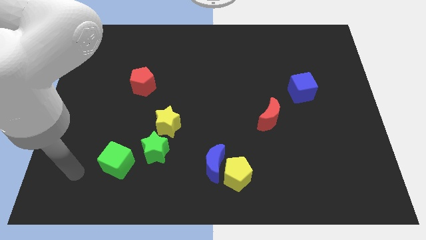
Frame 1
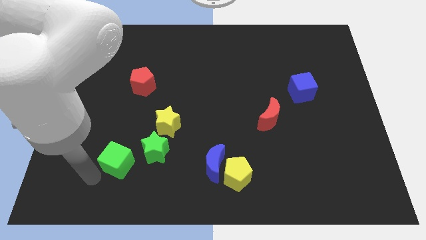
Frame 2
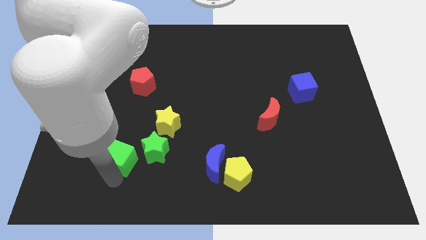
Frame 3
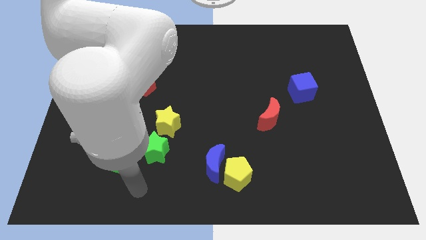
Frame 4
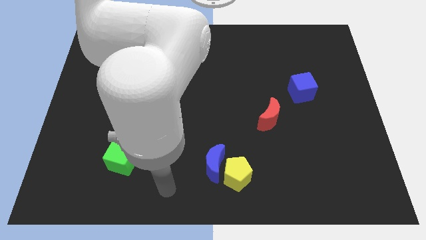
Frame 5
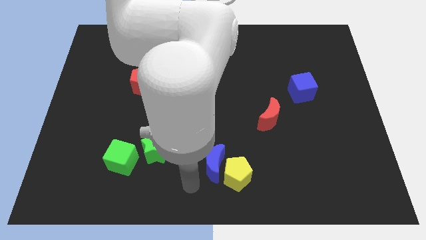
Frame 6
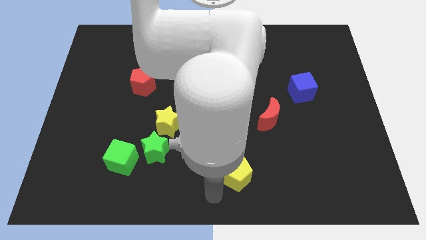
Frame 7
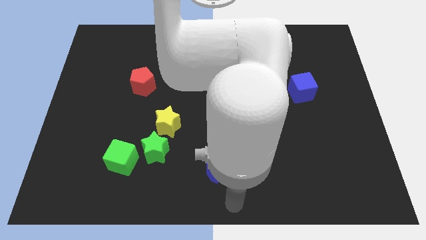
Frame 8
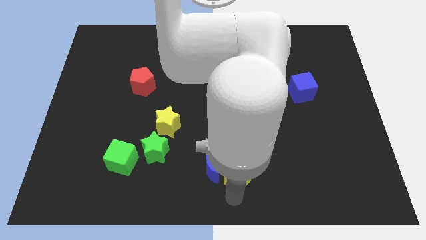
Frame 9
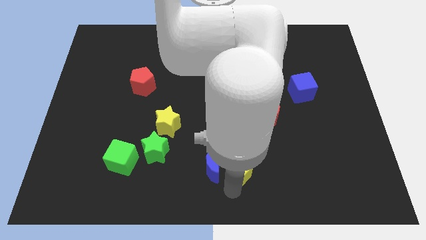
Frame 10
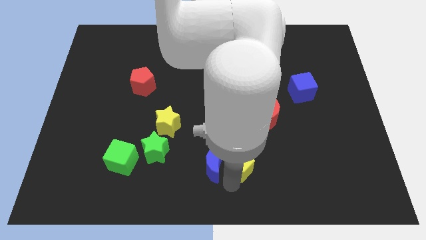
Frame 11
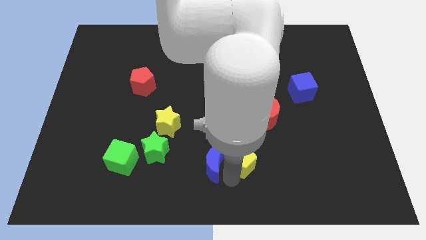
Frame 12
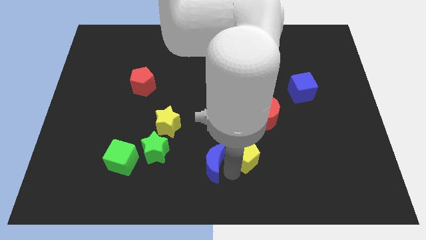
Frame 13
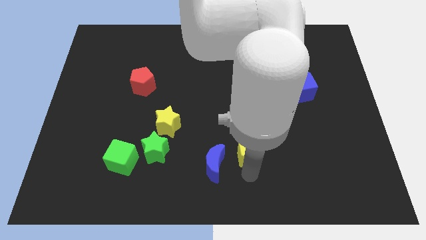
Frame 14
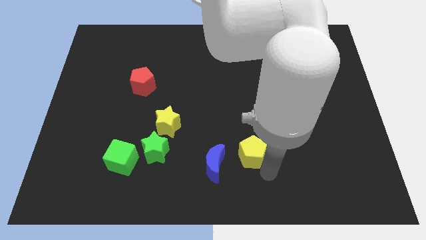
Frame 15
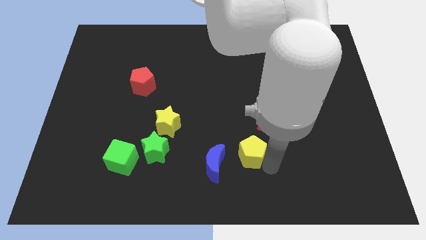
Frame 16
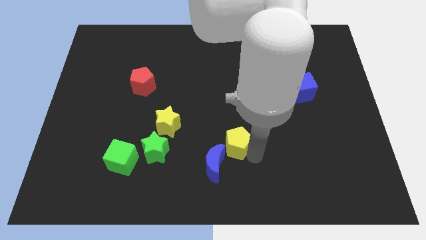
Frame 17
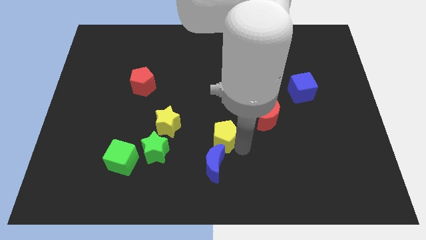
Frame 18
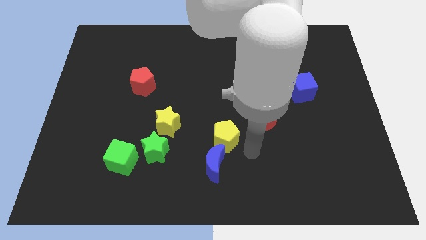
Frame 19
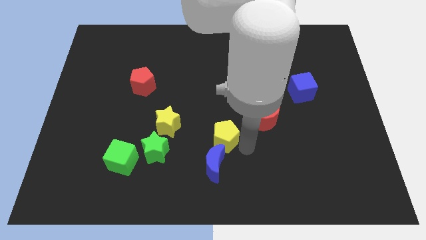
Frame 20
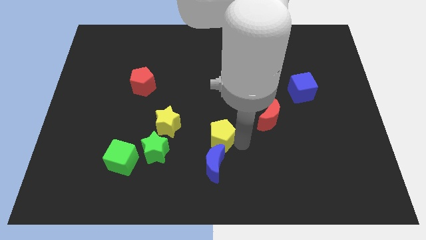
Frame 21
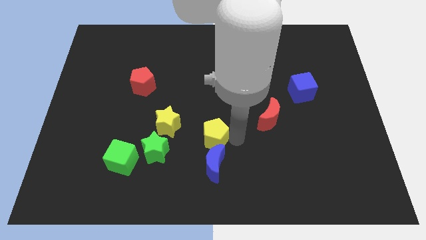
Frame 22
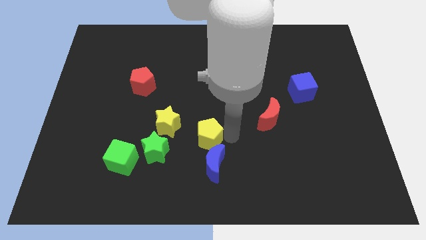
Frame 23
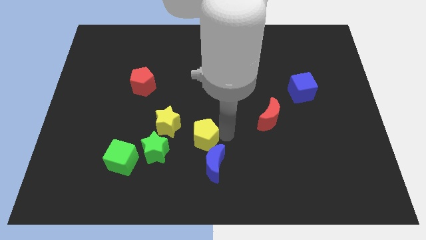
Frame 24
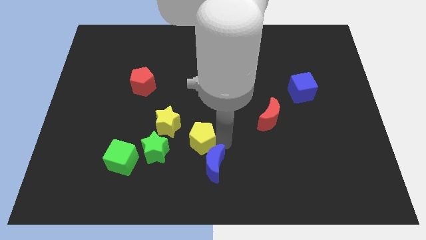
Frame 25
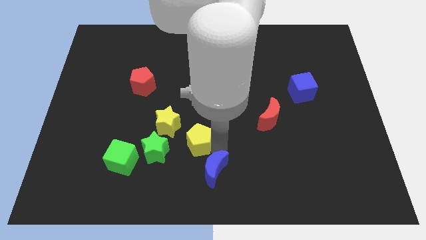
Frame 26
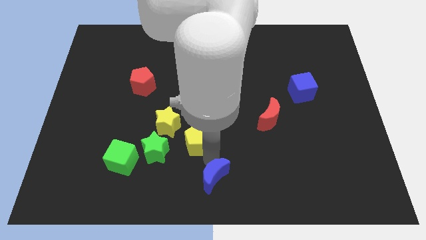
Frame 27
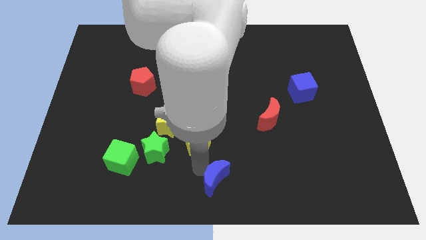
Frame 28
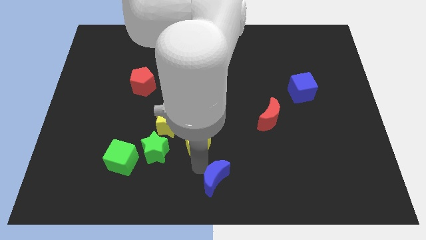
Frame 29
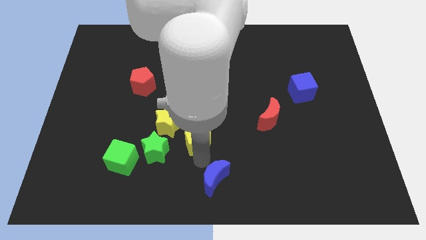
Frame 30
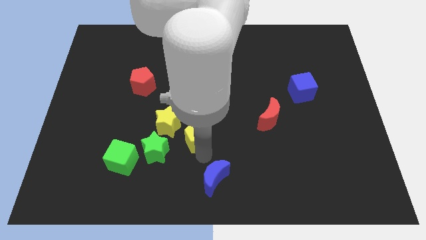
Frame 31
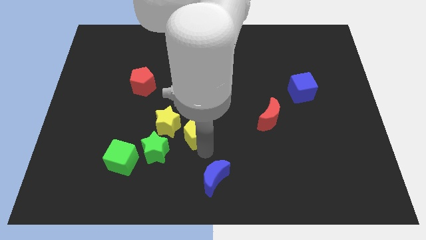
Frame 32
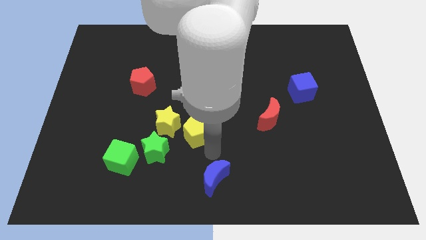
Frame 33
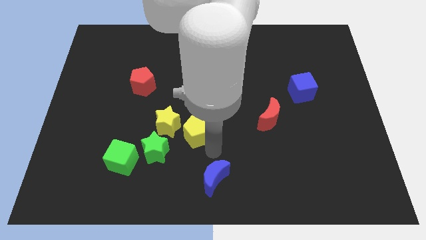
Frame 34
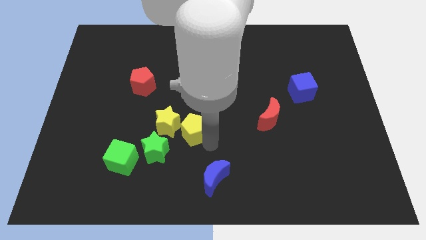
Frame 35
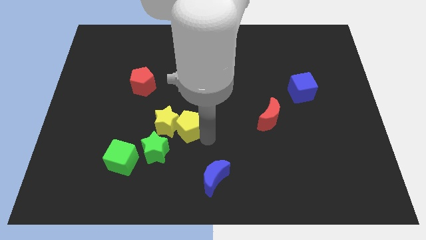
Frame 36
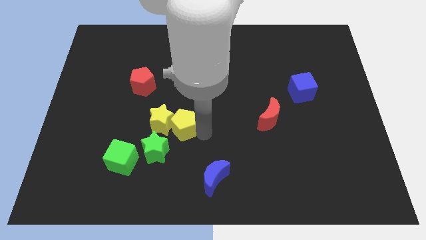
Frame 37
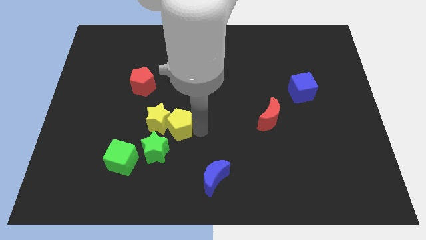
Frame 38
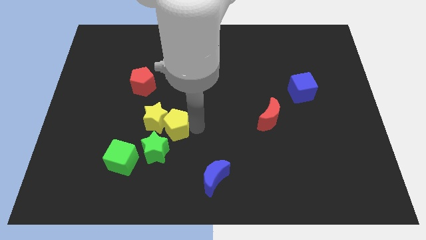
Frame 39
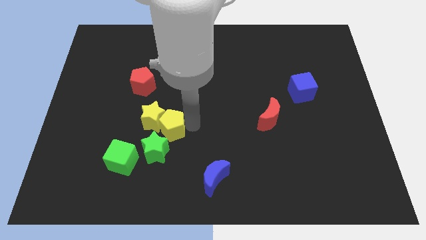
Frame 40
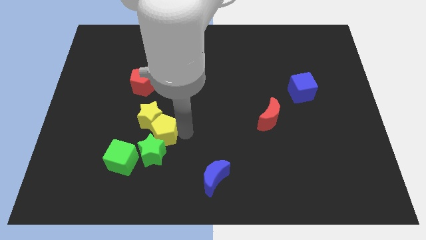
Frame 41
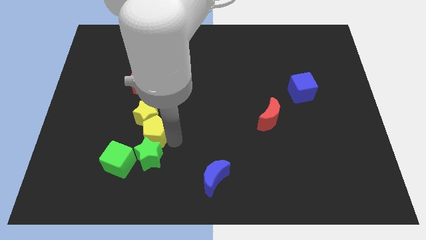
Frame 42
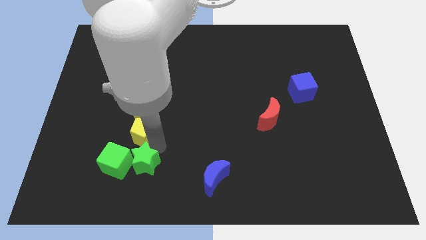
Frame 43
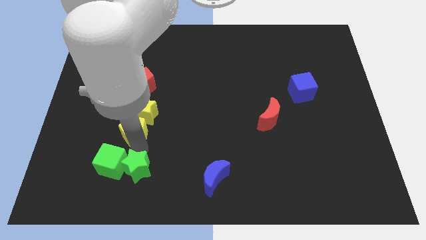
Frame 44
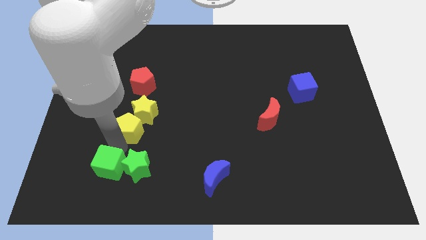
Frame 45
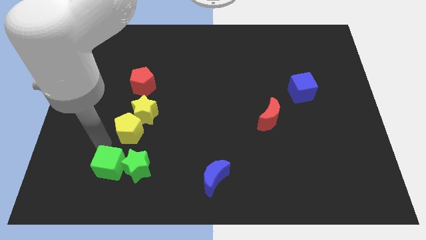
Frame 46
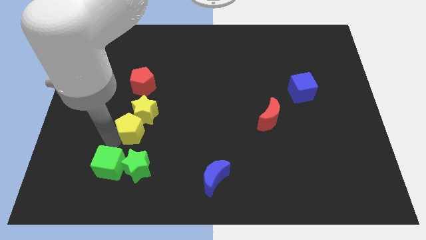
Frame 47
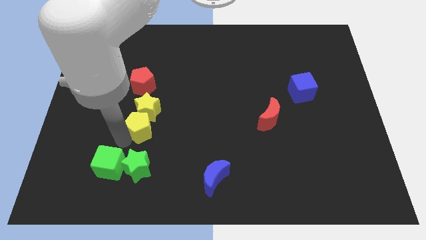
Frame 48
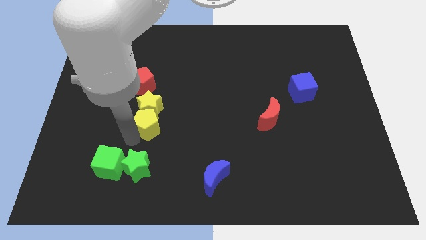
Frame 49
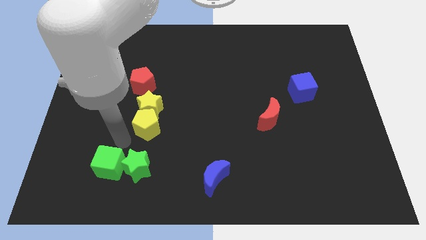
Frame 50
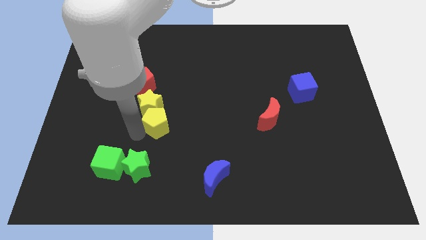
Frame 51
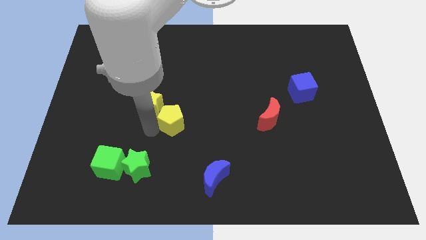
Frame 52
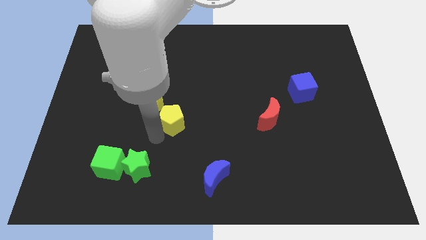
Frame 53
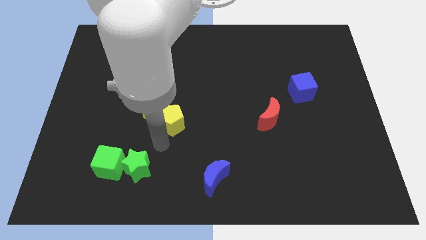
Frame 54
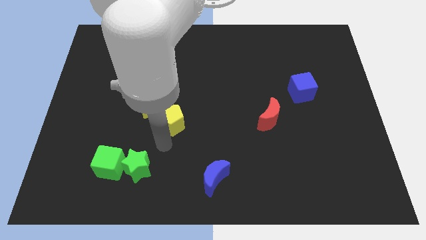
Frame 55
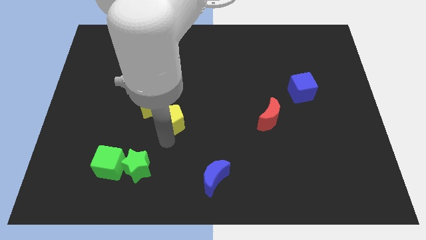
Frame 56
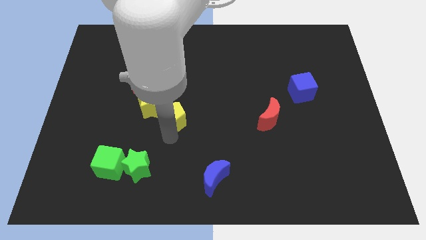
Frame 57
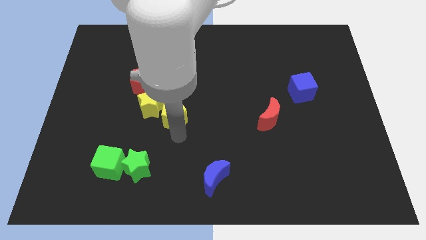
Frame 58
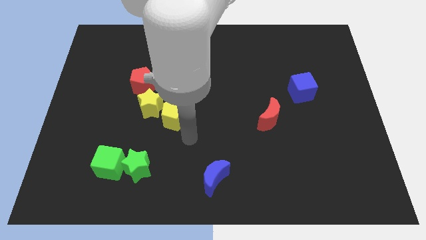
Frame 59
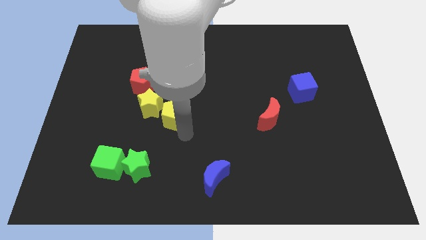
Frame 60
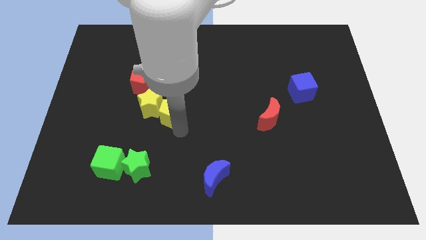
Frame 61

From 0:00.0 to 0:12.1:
put the yellow pentagon to the bottom right side of the red pentagon

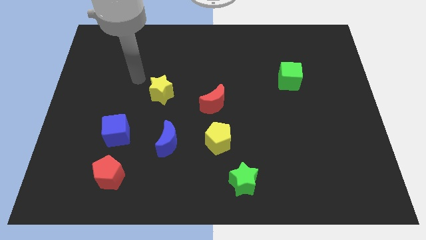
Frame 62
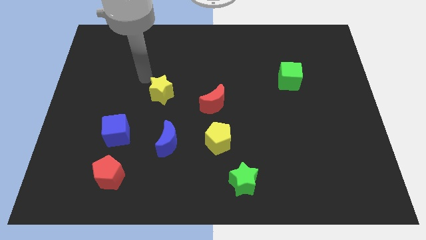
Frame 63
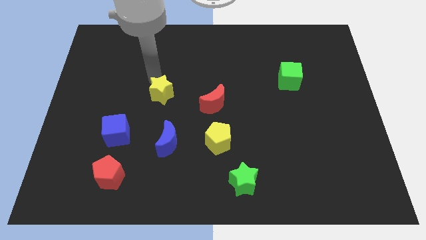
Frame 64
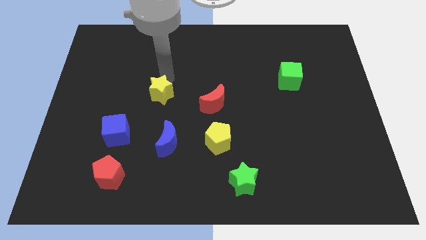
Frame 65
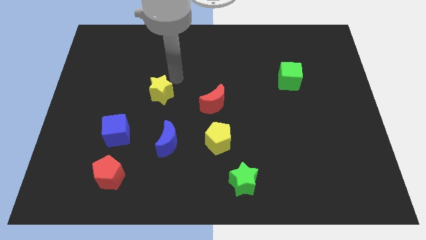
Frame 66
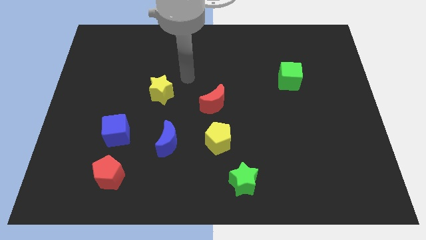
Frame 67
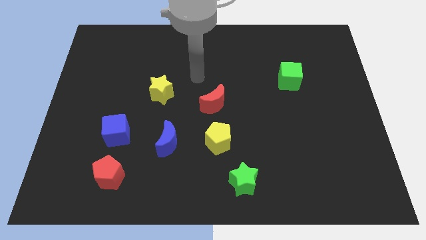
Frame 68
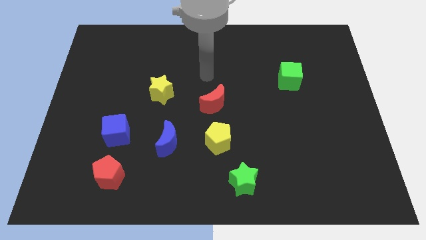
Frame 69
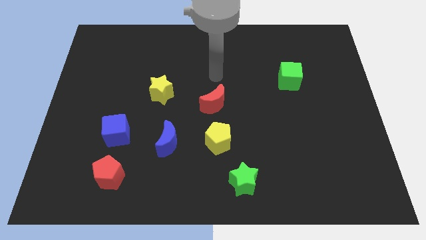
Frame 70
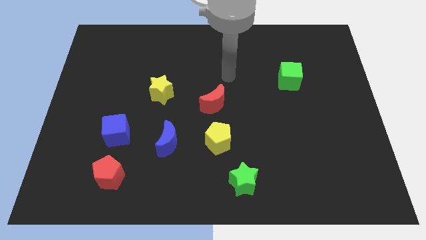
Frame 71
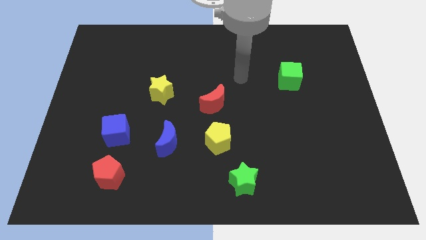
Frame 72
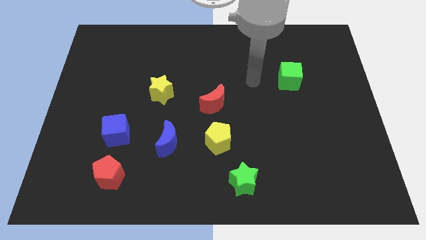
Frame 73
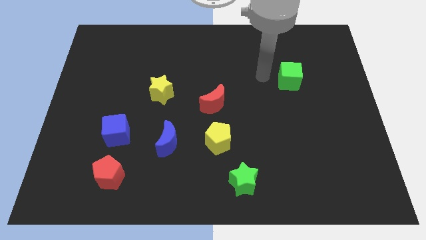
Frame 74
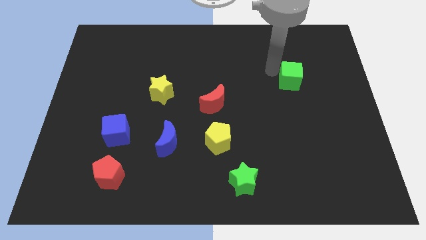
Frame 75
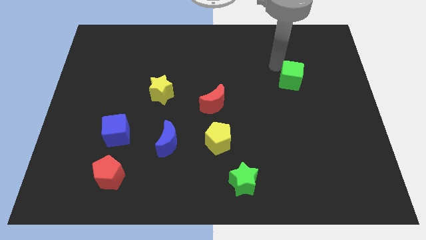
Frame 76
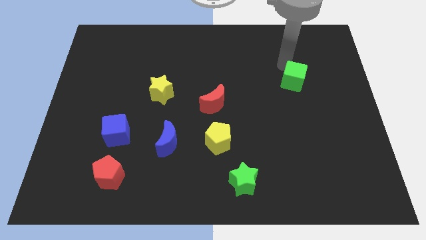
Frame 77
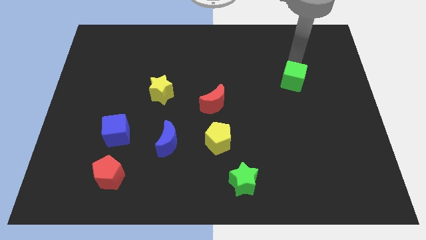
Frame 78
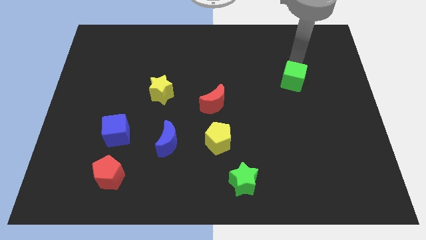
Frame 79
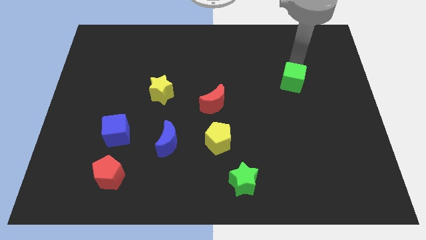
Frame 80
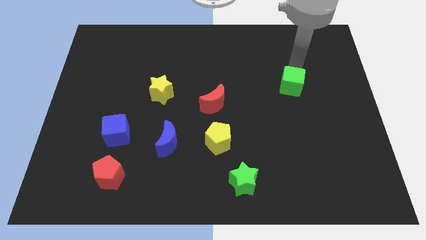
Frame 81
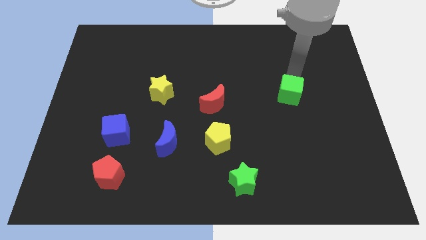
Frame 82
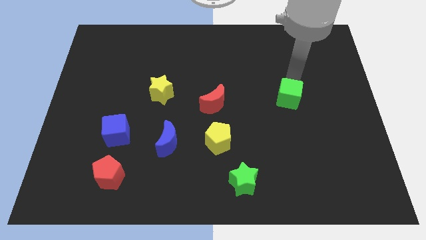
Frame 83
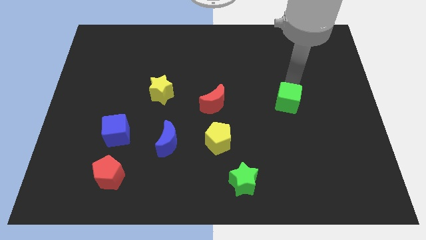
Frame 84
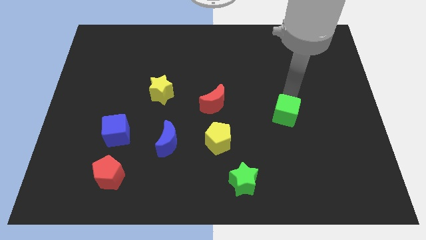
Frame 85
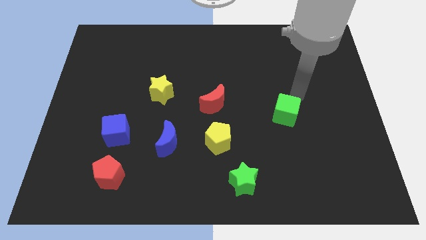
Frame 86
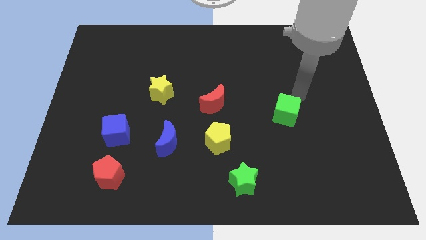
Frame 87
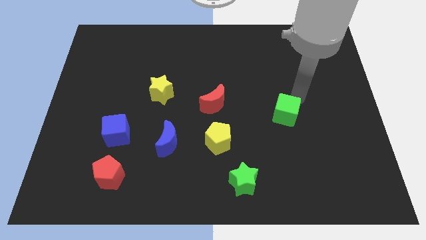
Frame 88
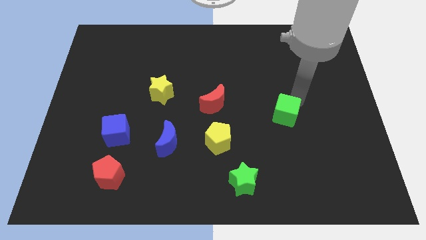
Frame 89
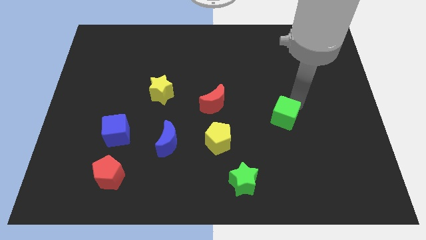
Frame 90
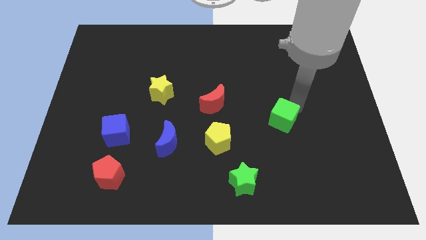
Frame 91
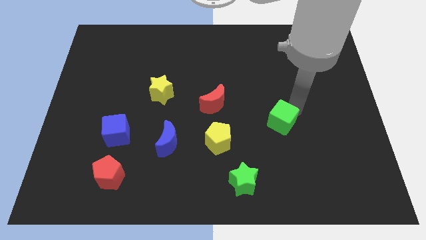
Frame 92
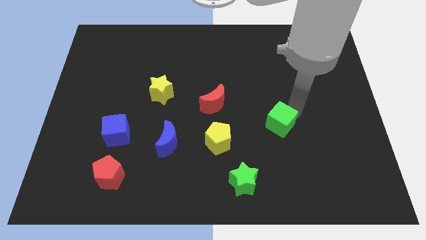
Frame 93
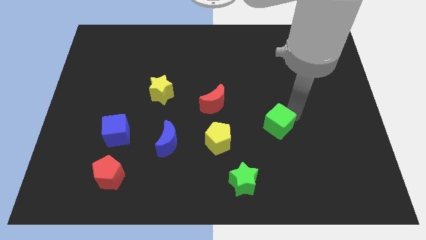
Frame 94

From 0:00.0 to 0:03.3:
push the green cube just right of the yellow pentagon
